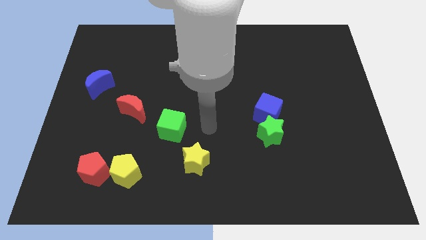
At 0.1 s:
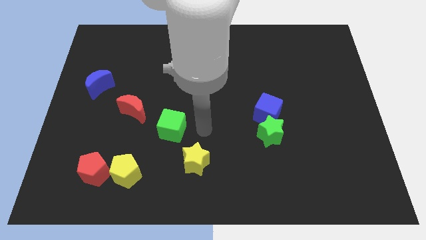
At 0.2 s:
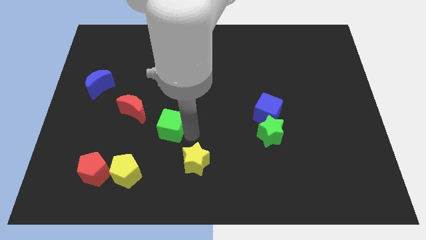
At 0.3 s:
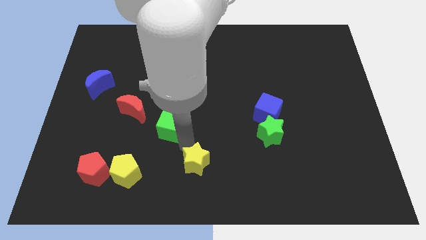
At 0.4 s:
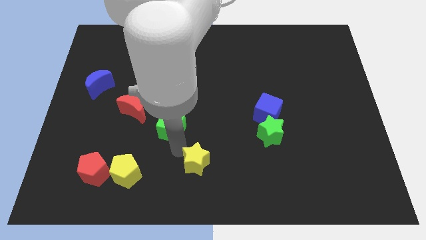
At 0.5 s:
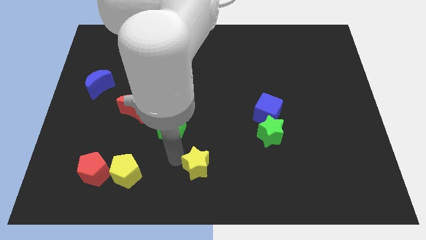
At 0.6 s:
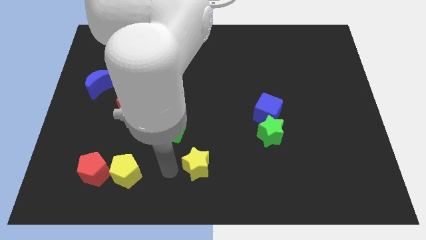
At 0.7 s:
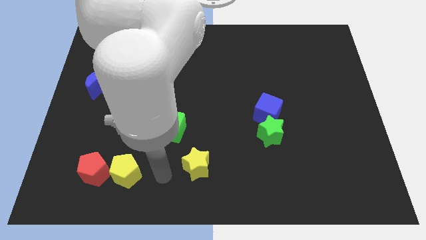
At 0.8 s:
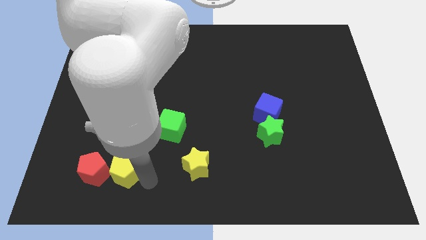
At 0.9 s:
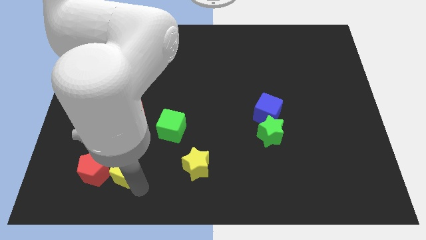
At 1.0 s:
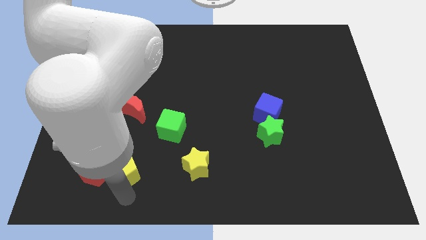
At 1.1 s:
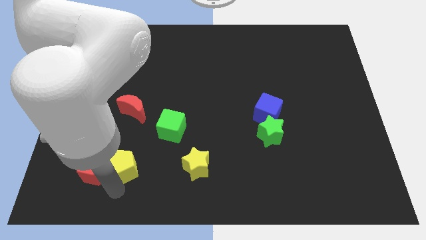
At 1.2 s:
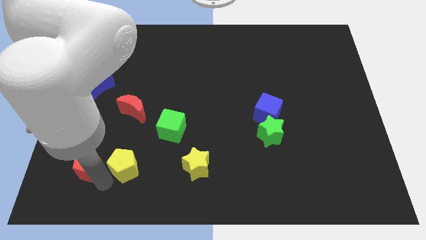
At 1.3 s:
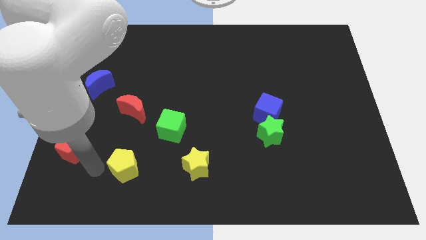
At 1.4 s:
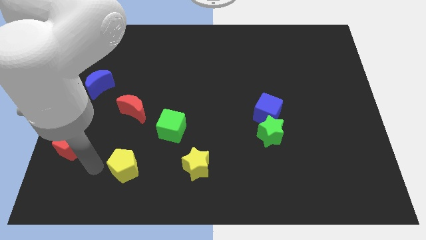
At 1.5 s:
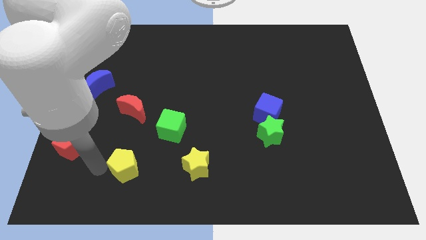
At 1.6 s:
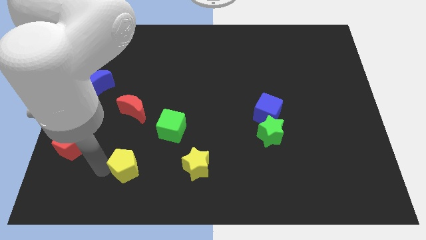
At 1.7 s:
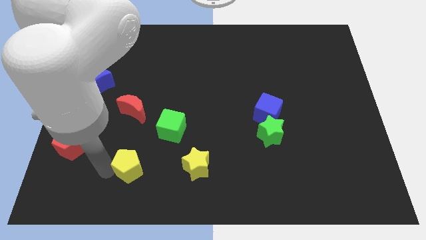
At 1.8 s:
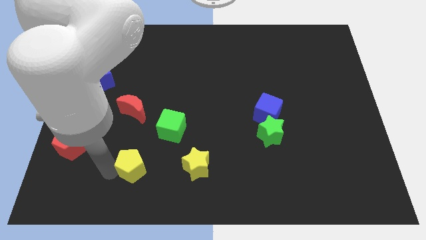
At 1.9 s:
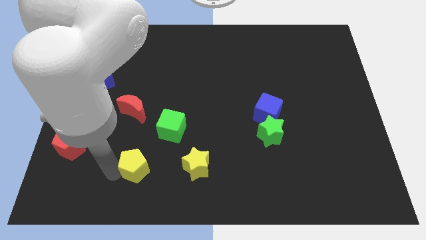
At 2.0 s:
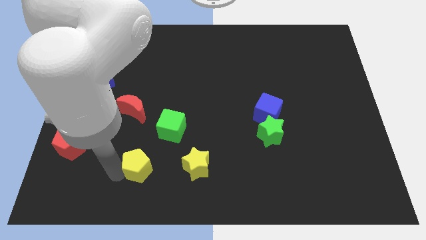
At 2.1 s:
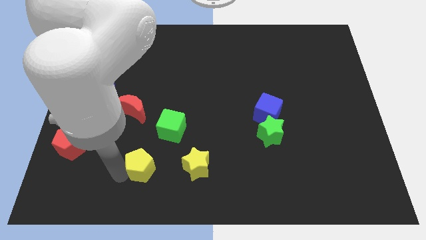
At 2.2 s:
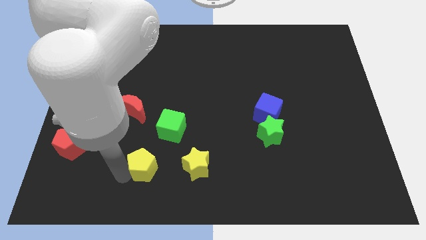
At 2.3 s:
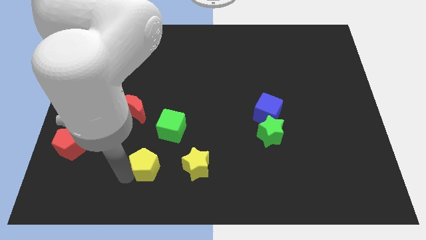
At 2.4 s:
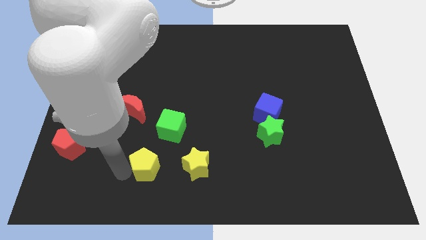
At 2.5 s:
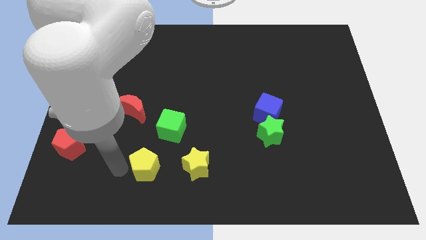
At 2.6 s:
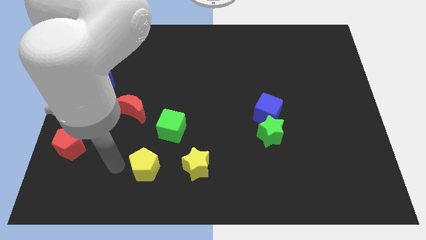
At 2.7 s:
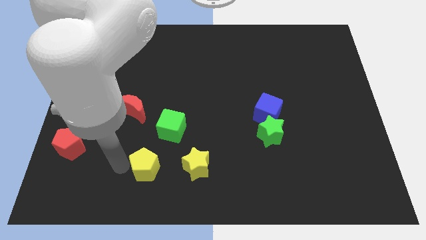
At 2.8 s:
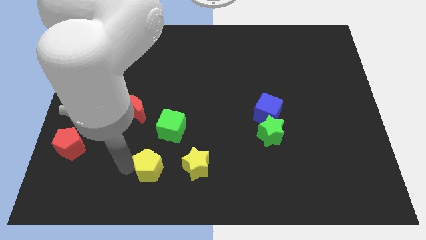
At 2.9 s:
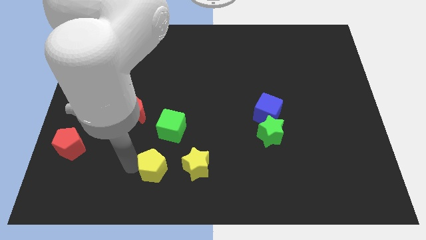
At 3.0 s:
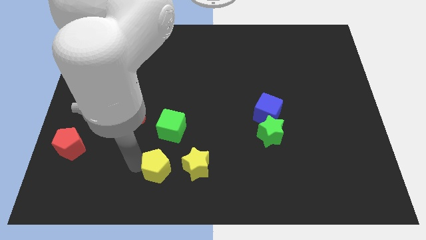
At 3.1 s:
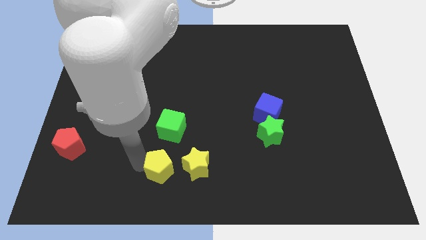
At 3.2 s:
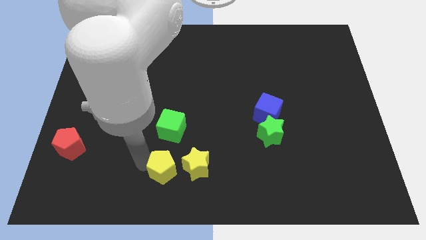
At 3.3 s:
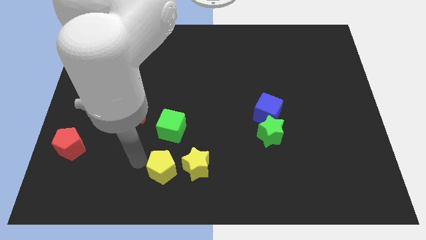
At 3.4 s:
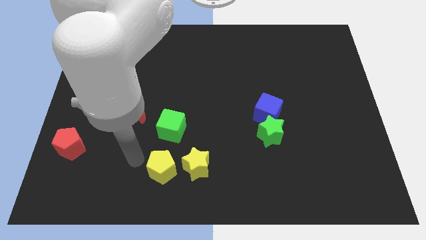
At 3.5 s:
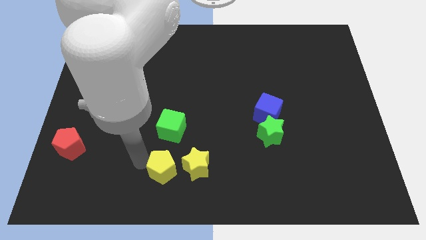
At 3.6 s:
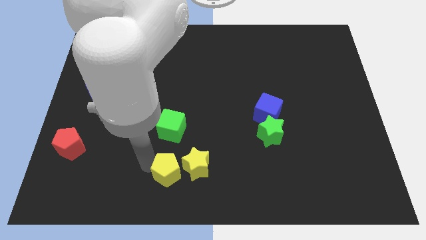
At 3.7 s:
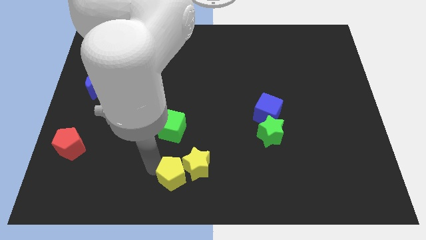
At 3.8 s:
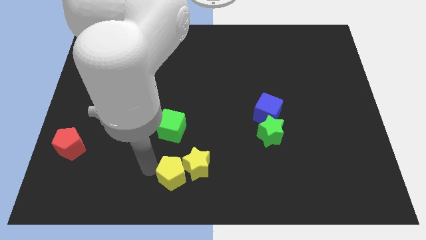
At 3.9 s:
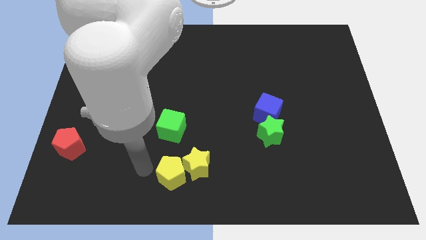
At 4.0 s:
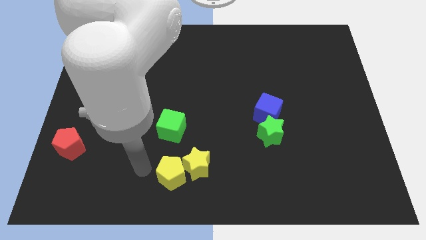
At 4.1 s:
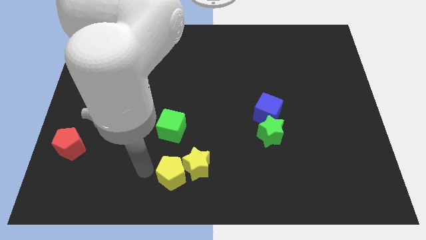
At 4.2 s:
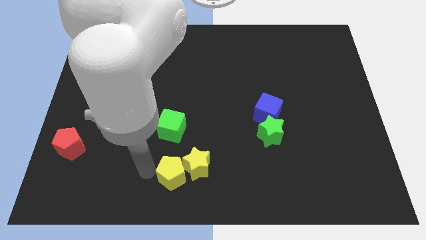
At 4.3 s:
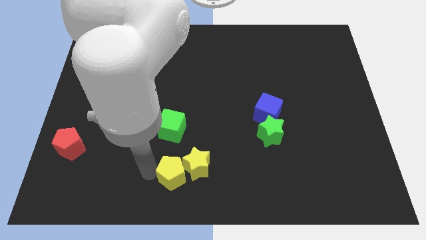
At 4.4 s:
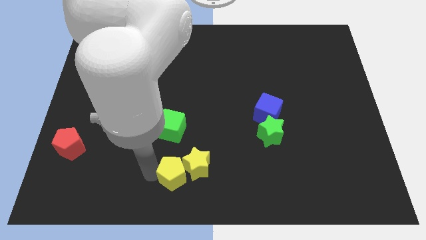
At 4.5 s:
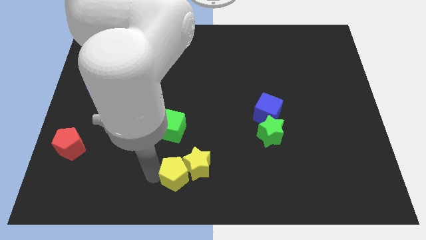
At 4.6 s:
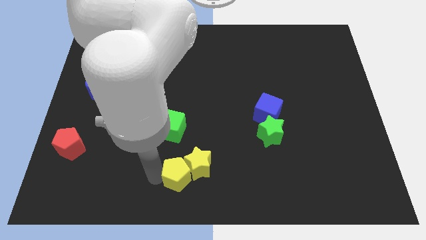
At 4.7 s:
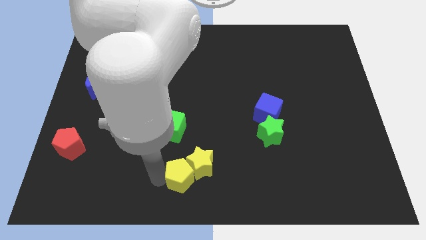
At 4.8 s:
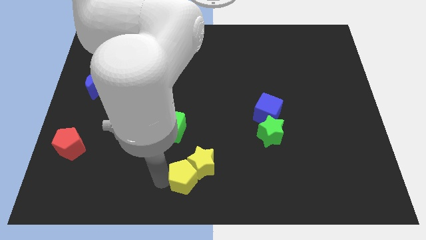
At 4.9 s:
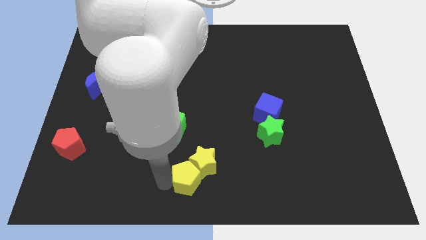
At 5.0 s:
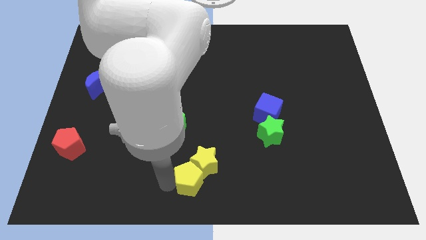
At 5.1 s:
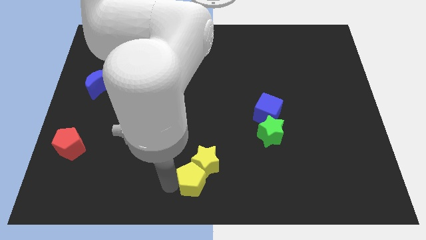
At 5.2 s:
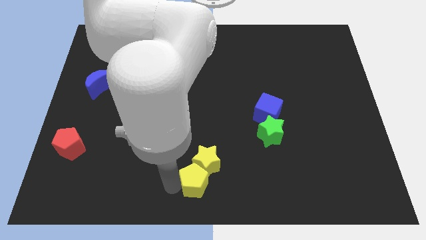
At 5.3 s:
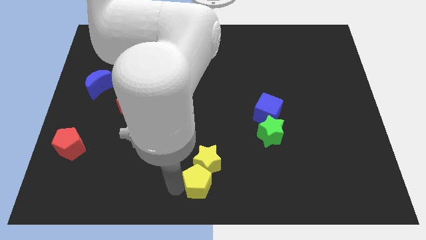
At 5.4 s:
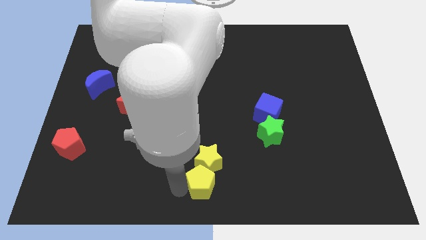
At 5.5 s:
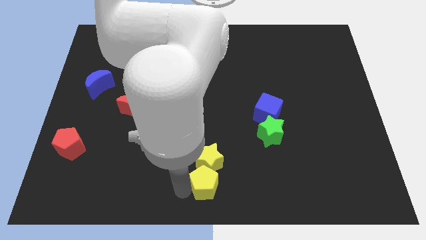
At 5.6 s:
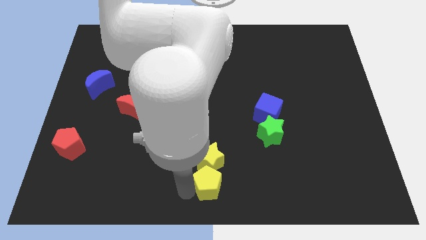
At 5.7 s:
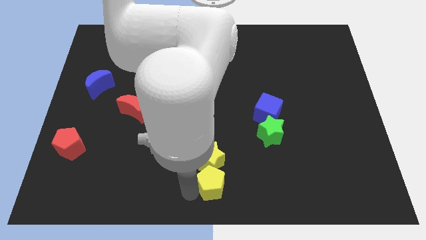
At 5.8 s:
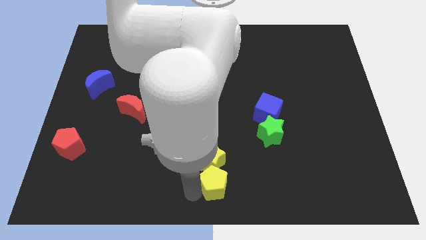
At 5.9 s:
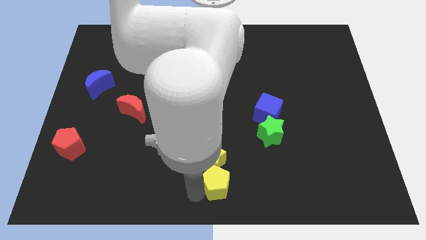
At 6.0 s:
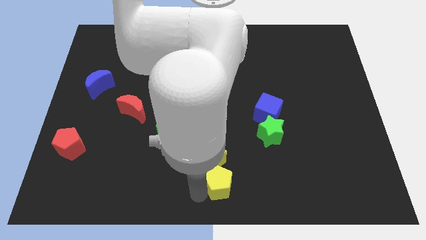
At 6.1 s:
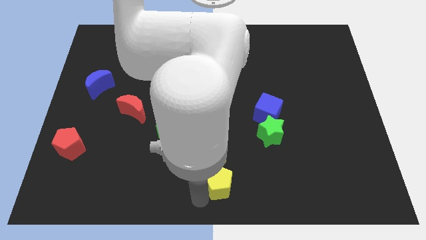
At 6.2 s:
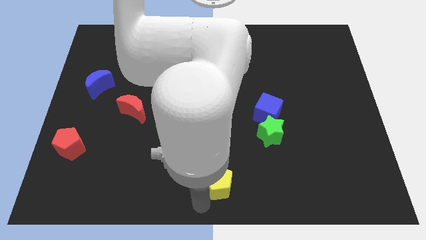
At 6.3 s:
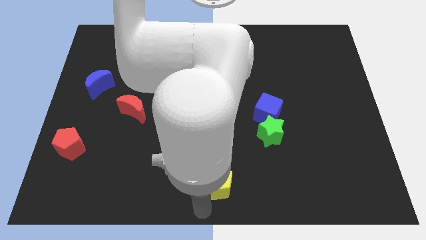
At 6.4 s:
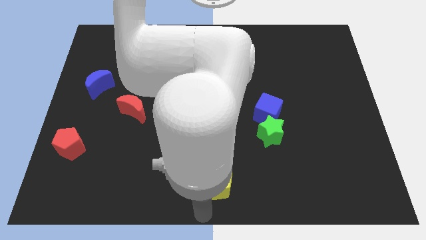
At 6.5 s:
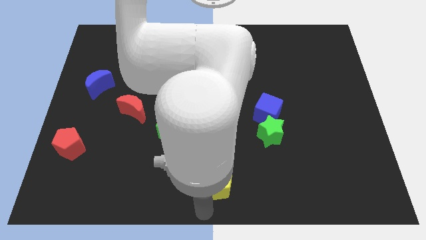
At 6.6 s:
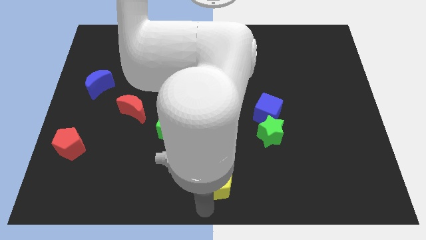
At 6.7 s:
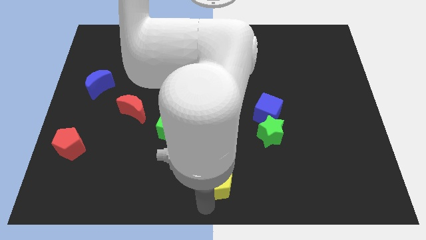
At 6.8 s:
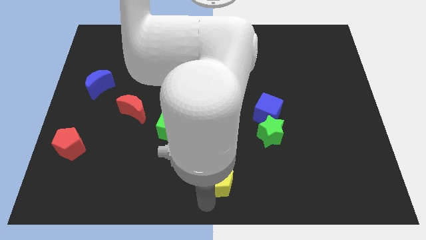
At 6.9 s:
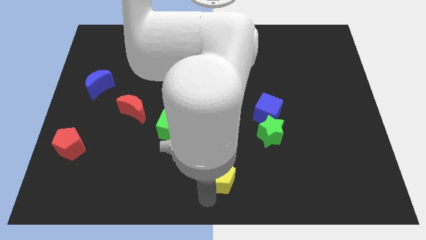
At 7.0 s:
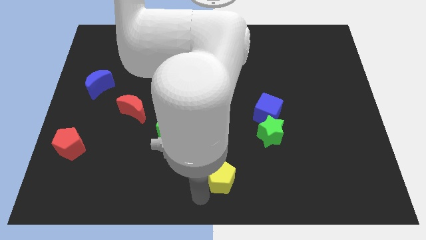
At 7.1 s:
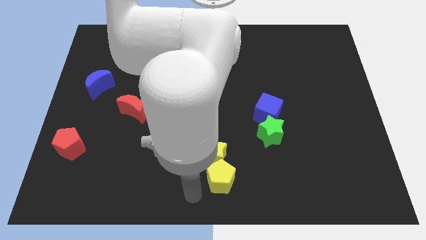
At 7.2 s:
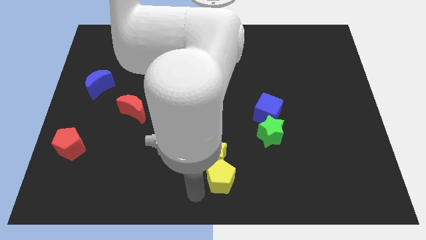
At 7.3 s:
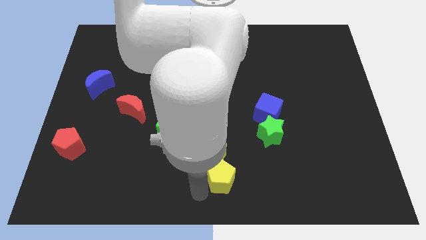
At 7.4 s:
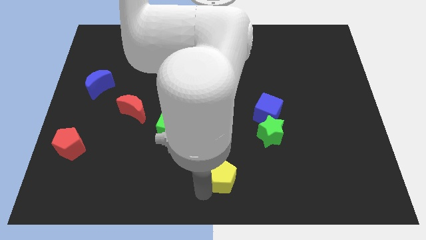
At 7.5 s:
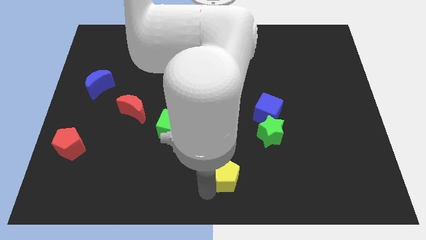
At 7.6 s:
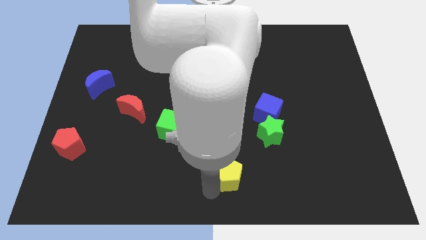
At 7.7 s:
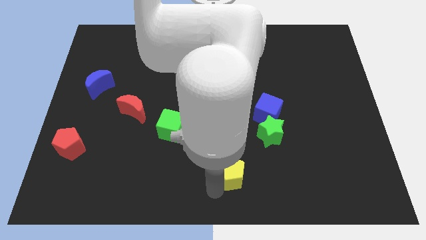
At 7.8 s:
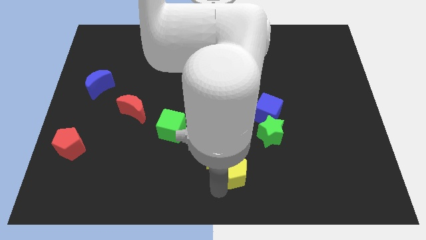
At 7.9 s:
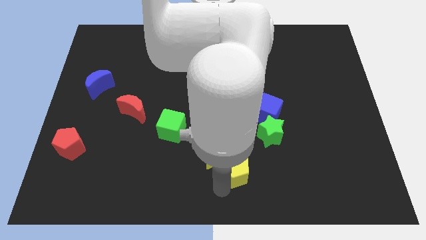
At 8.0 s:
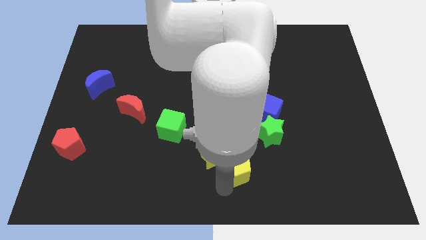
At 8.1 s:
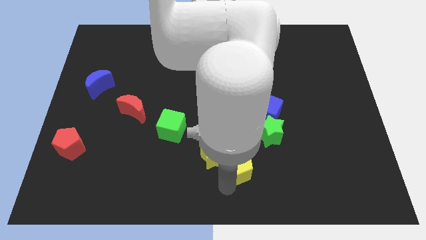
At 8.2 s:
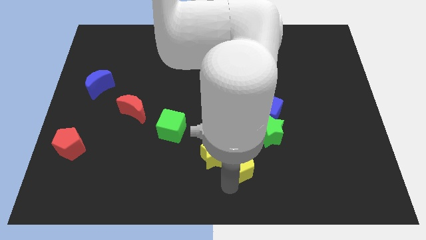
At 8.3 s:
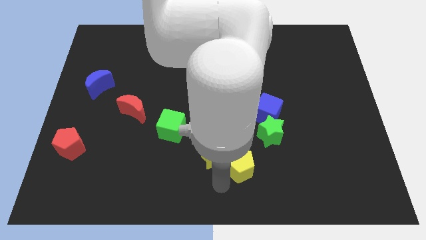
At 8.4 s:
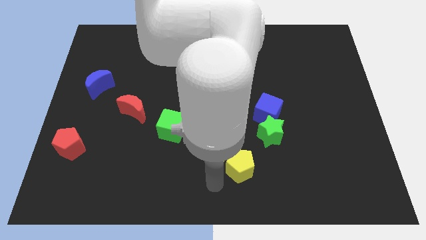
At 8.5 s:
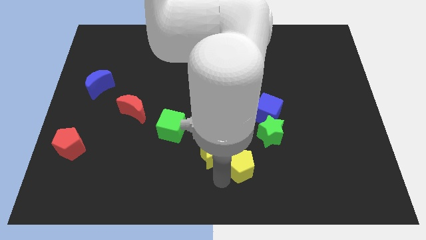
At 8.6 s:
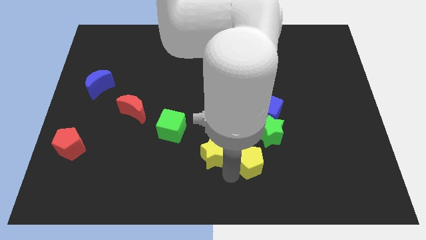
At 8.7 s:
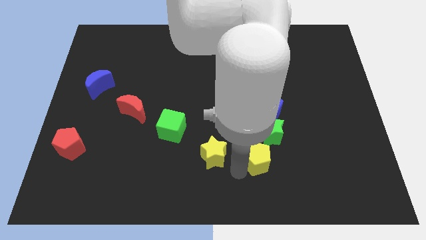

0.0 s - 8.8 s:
put the yellow pentagon to the bottom of the blue cube
